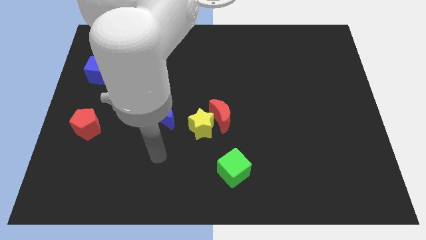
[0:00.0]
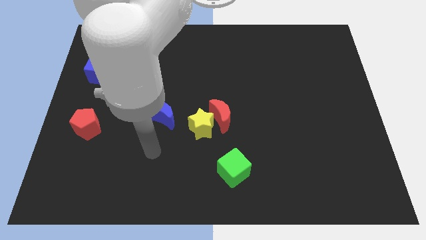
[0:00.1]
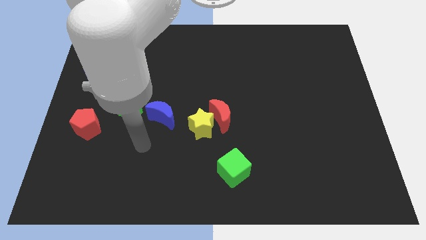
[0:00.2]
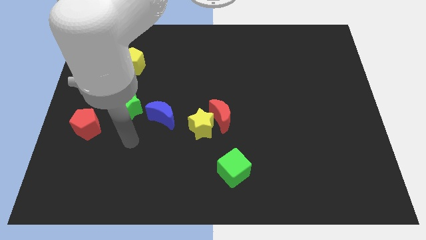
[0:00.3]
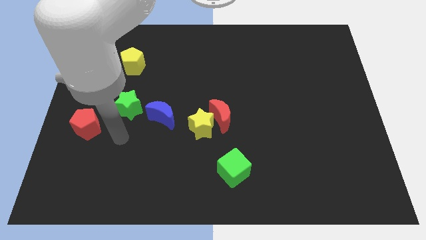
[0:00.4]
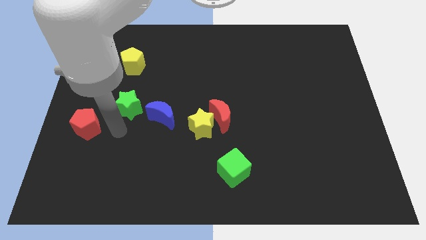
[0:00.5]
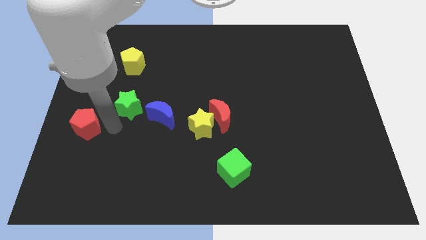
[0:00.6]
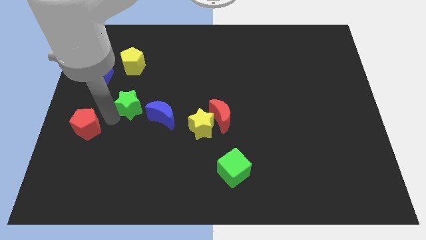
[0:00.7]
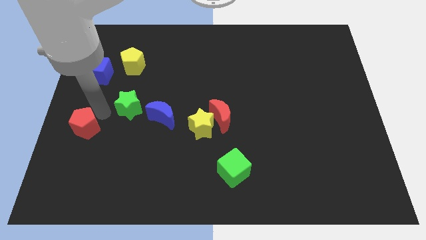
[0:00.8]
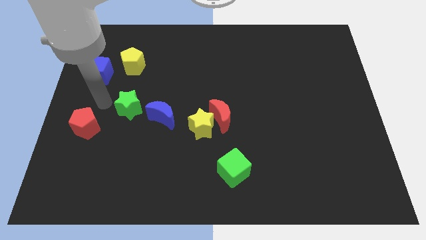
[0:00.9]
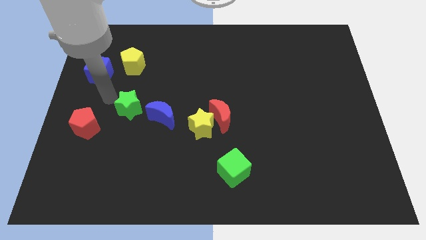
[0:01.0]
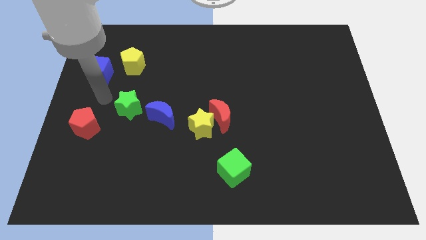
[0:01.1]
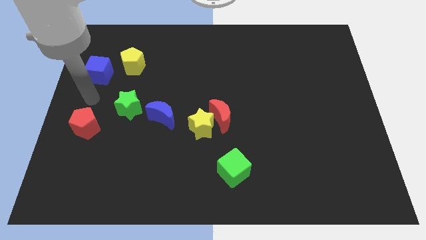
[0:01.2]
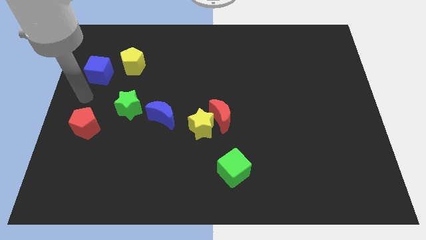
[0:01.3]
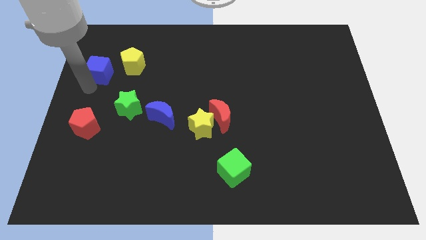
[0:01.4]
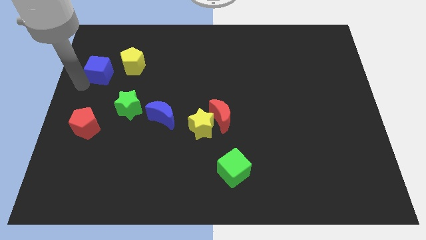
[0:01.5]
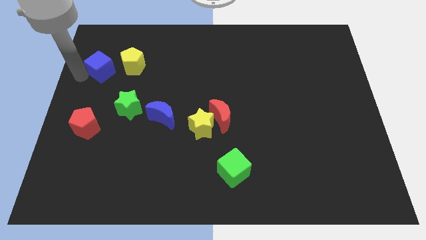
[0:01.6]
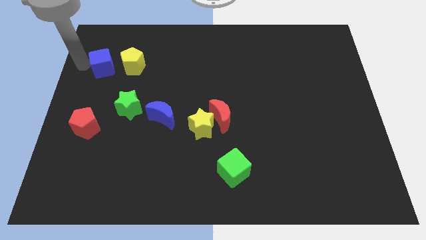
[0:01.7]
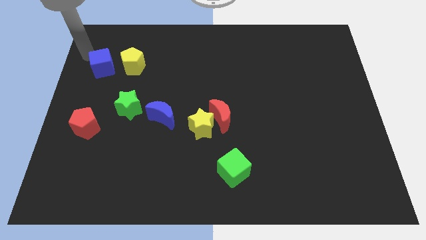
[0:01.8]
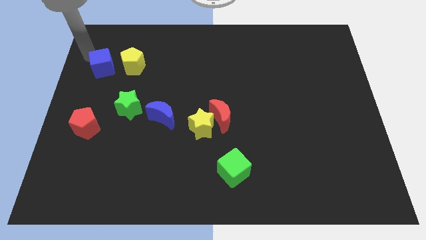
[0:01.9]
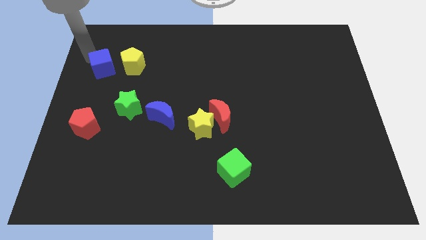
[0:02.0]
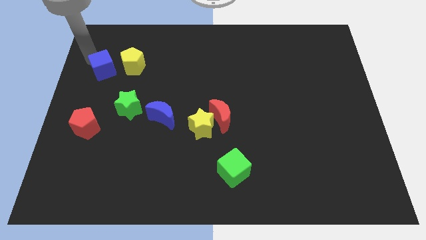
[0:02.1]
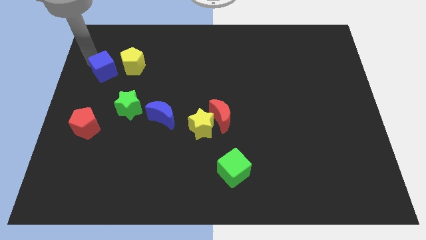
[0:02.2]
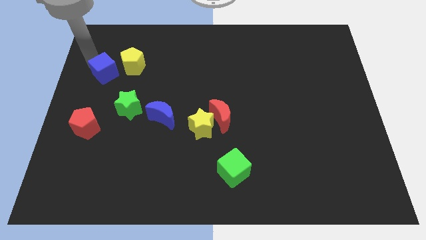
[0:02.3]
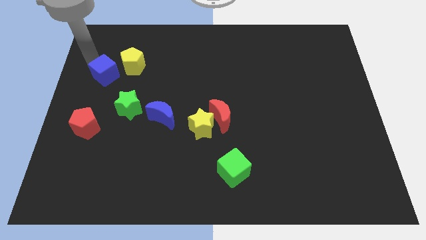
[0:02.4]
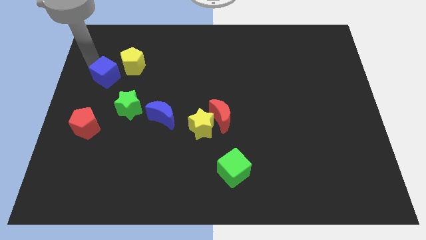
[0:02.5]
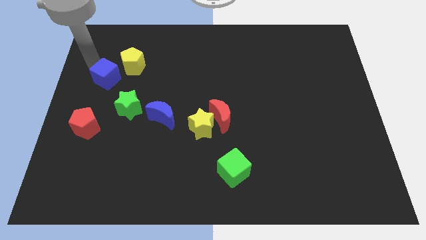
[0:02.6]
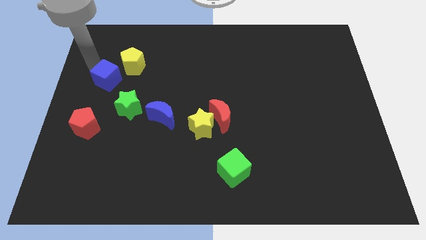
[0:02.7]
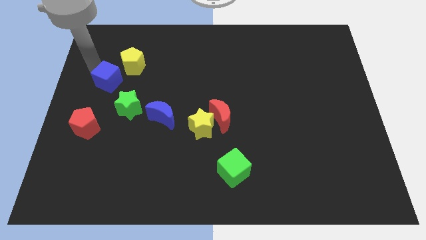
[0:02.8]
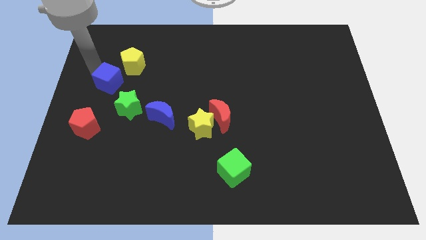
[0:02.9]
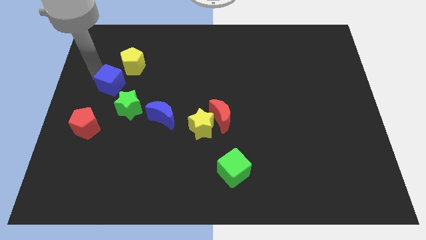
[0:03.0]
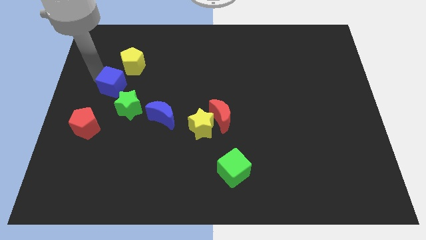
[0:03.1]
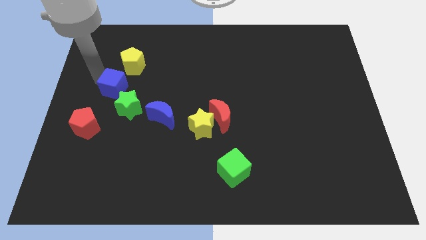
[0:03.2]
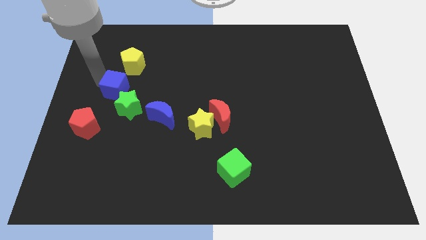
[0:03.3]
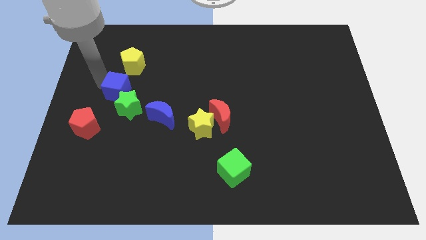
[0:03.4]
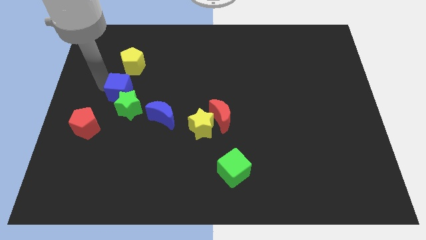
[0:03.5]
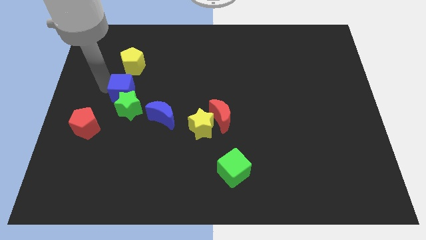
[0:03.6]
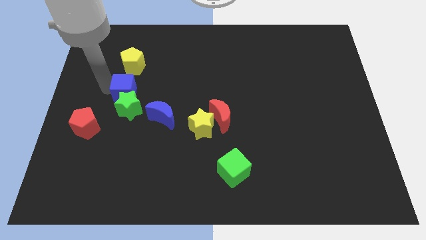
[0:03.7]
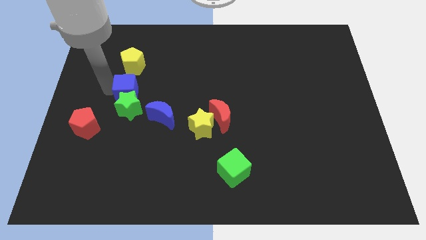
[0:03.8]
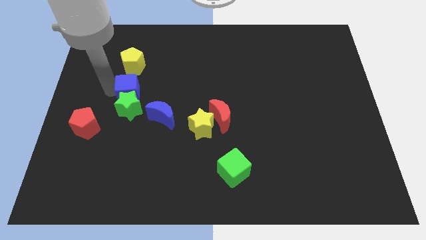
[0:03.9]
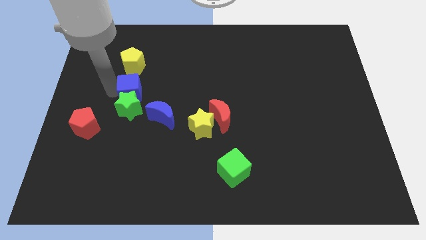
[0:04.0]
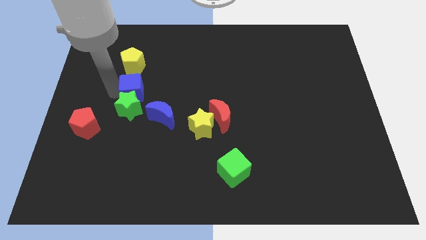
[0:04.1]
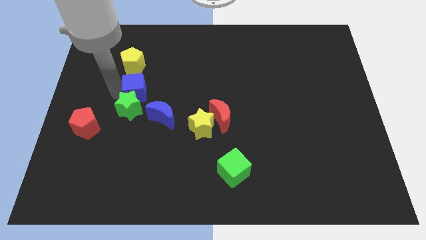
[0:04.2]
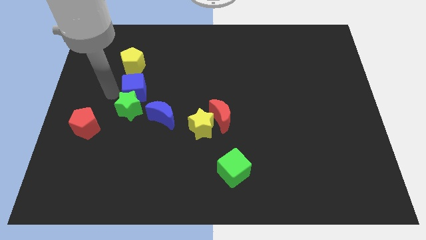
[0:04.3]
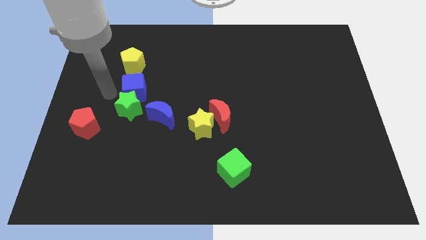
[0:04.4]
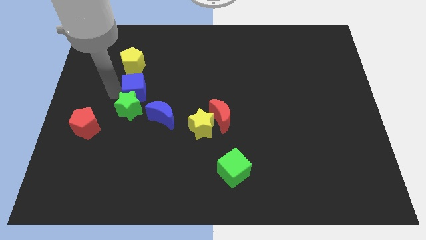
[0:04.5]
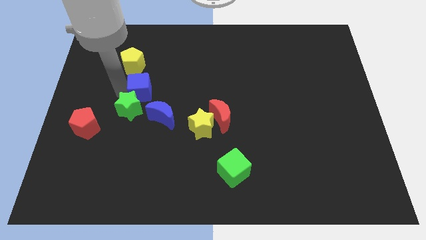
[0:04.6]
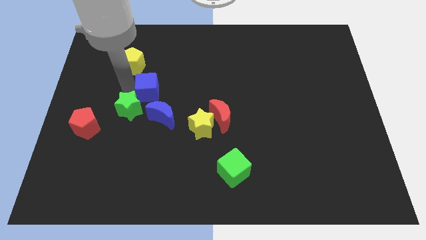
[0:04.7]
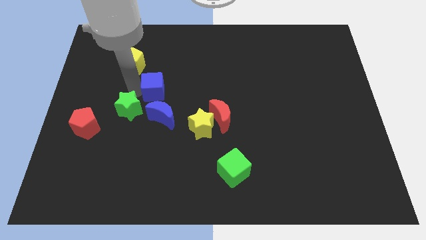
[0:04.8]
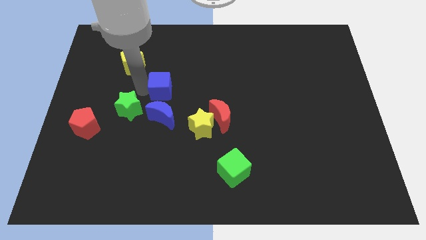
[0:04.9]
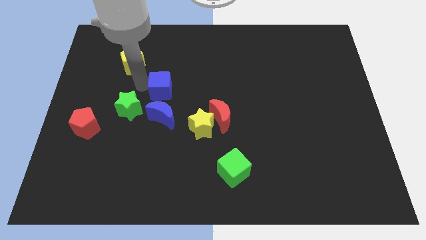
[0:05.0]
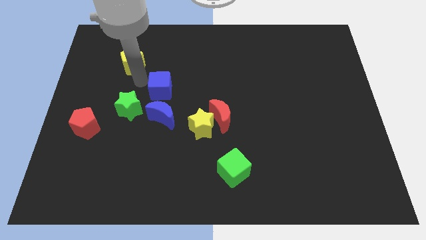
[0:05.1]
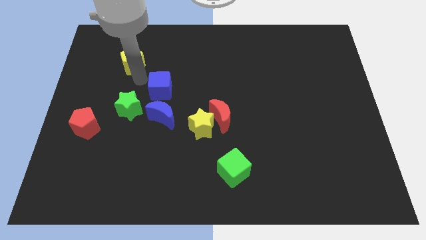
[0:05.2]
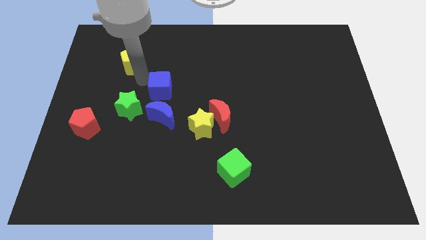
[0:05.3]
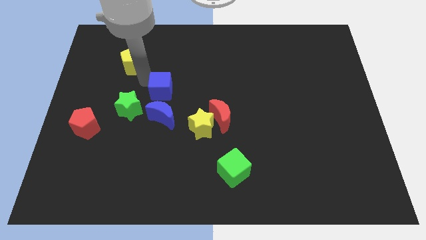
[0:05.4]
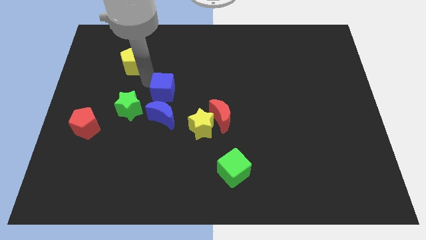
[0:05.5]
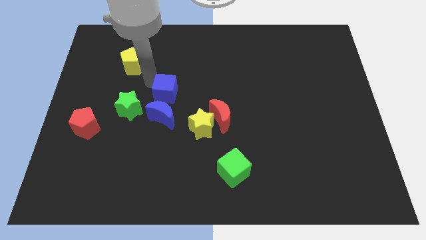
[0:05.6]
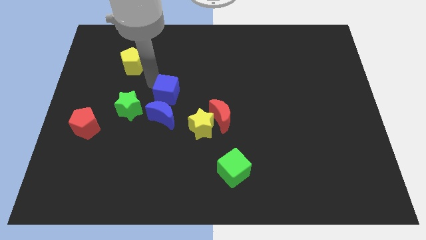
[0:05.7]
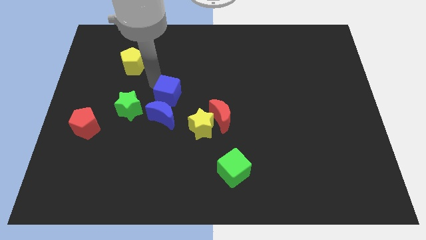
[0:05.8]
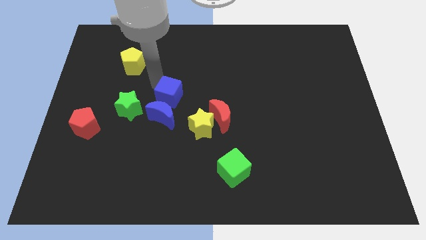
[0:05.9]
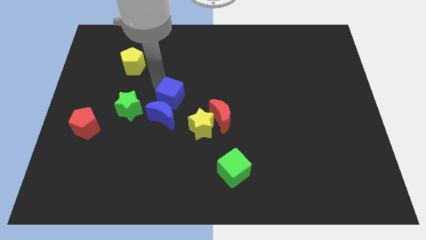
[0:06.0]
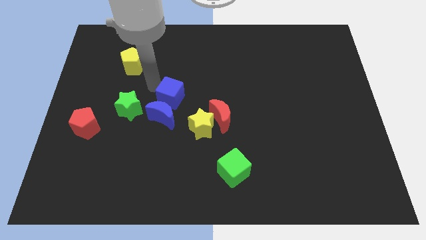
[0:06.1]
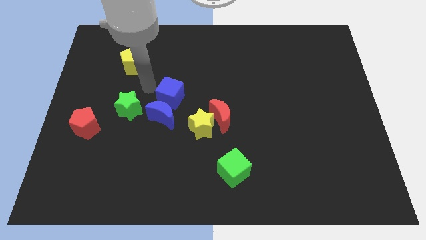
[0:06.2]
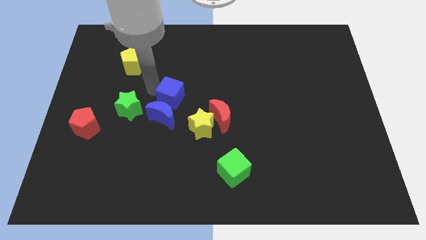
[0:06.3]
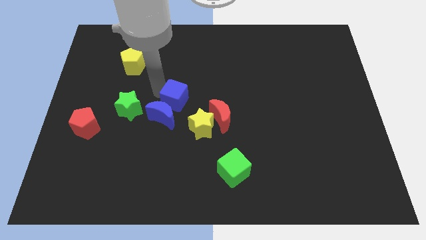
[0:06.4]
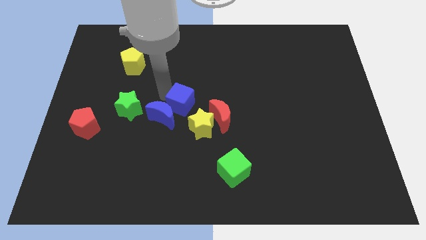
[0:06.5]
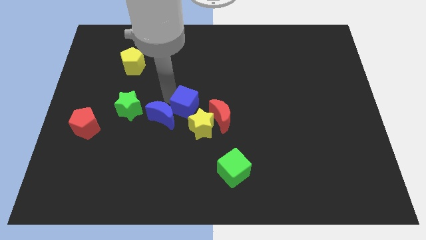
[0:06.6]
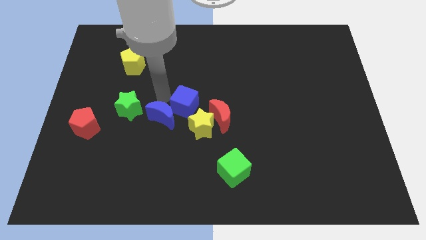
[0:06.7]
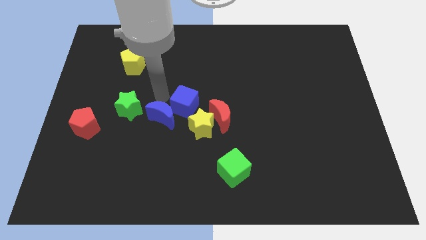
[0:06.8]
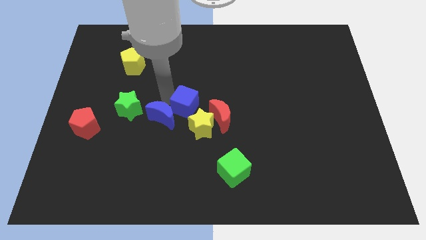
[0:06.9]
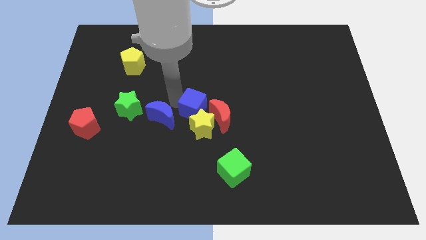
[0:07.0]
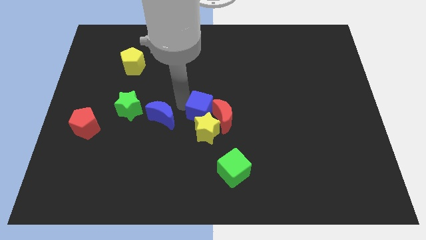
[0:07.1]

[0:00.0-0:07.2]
move the blue cube towards the red moon

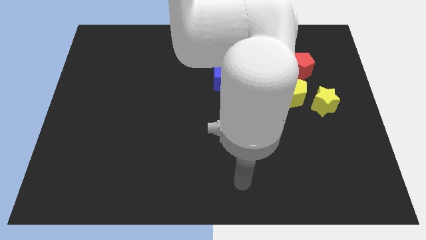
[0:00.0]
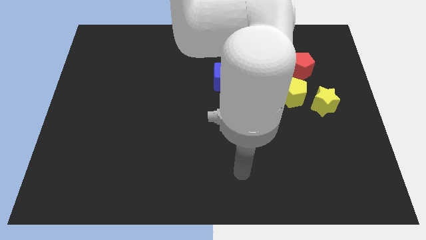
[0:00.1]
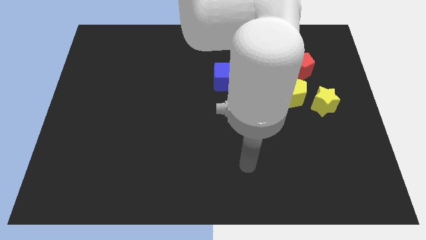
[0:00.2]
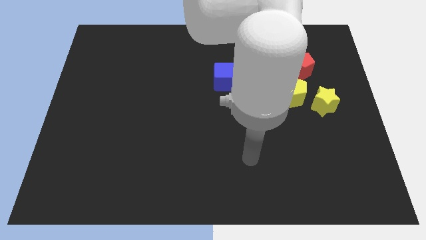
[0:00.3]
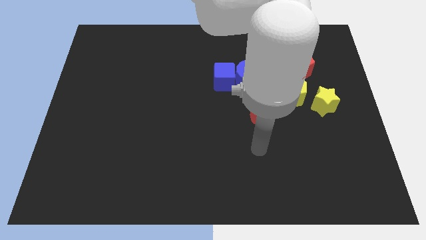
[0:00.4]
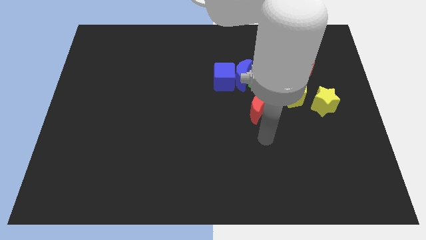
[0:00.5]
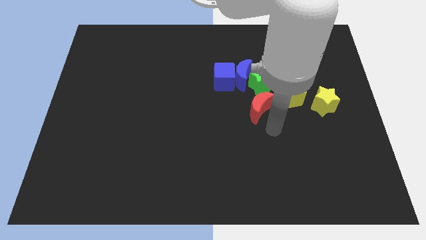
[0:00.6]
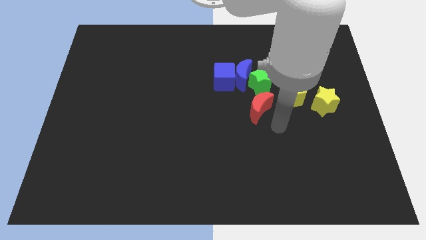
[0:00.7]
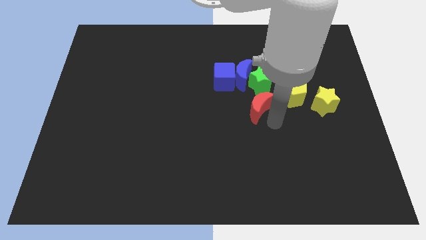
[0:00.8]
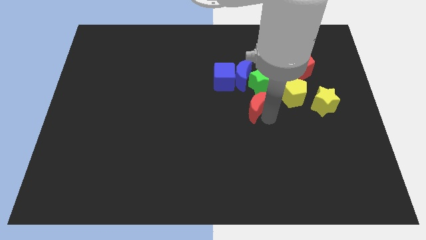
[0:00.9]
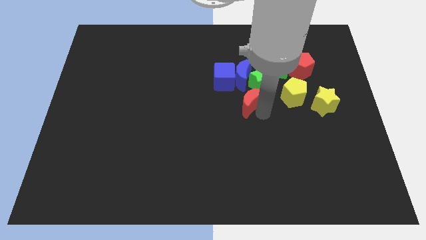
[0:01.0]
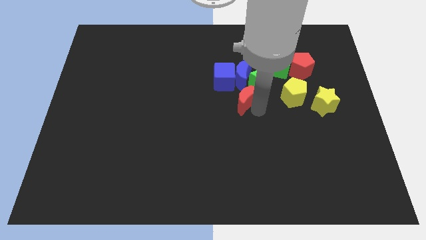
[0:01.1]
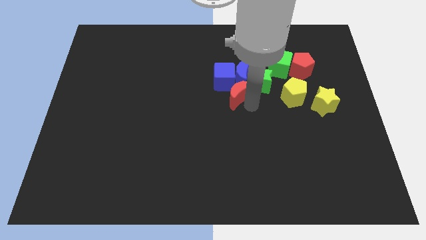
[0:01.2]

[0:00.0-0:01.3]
move the red moon next to the blue cube
